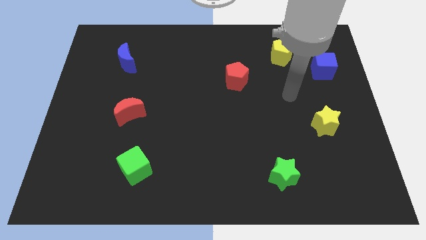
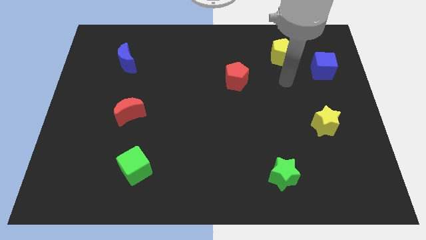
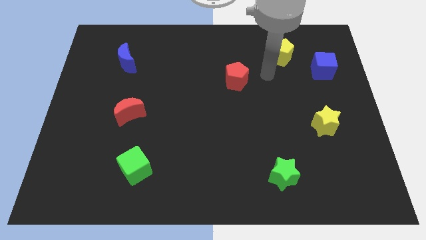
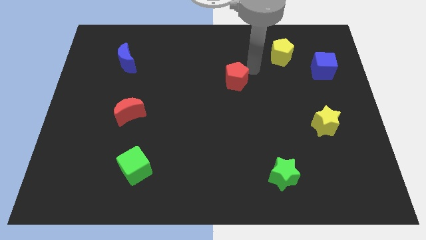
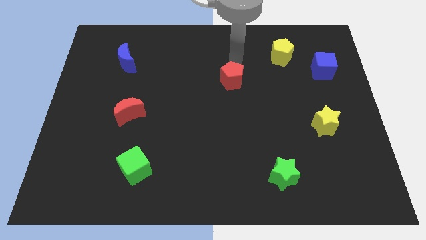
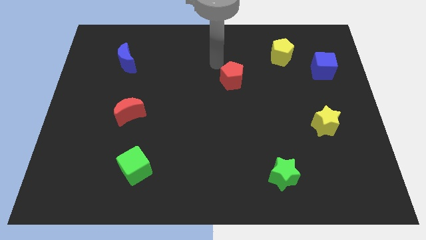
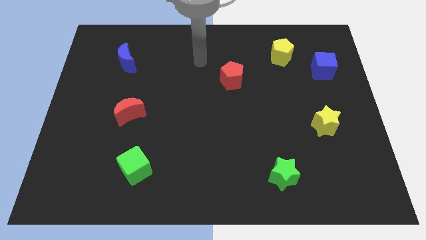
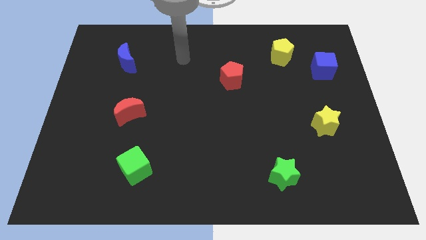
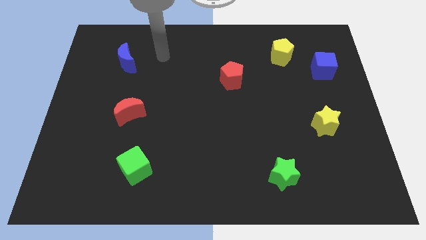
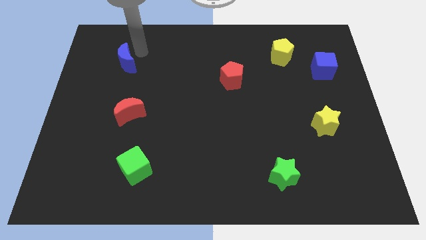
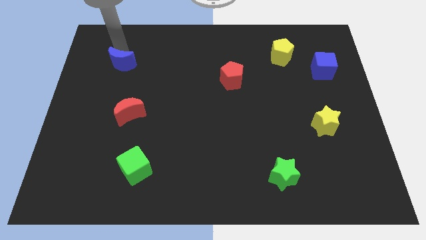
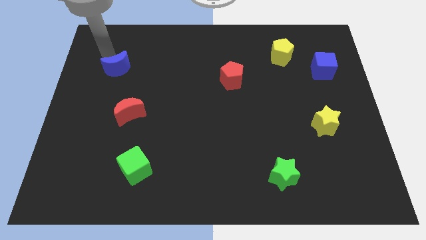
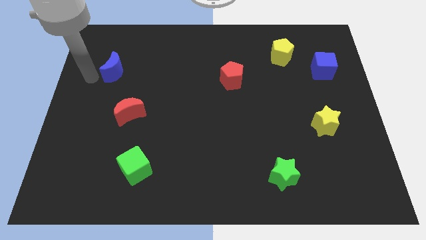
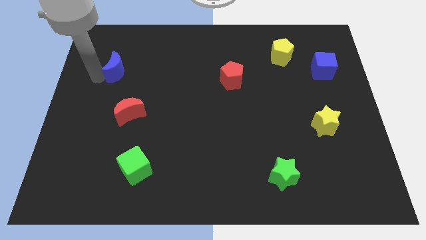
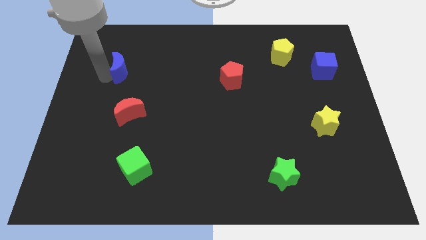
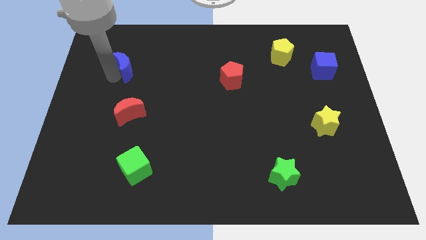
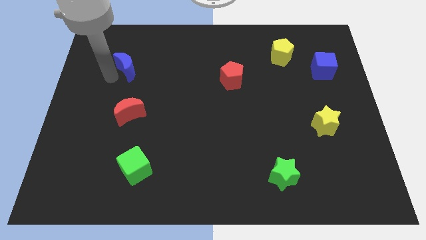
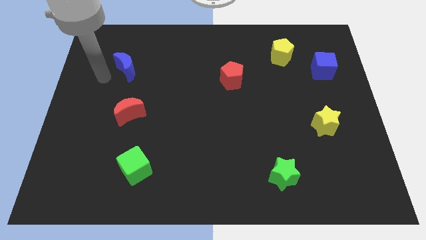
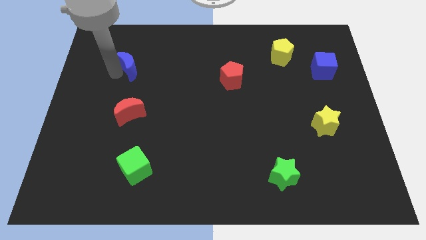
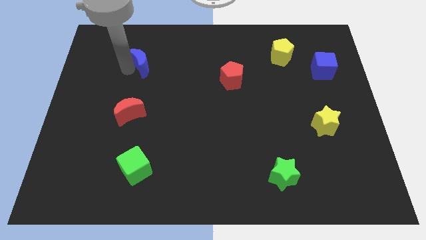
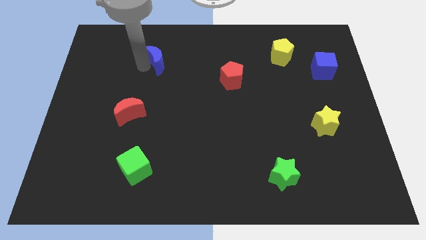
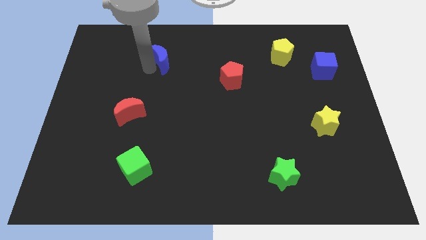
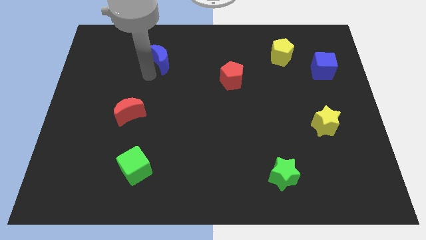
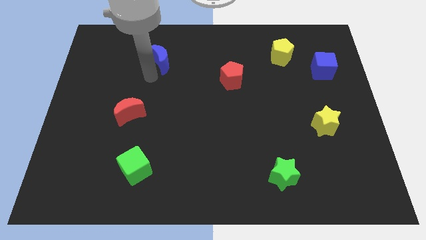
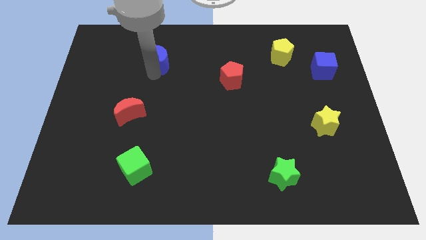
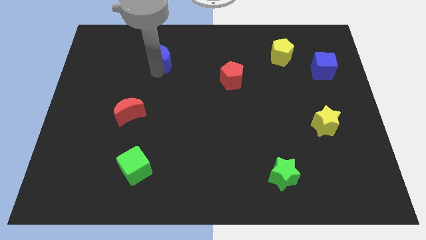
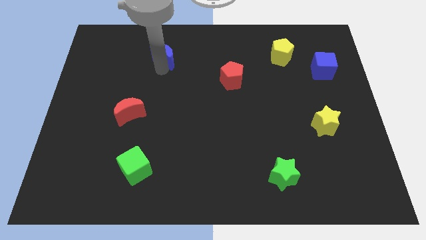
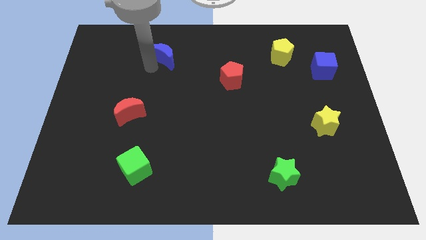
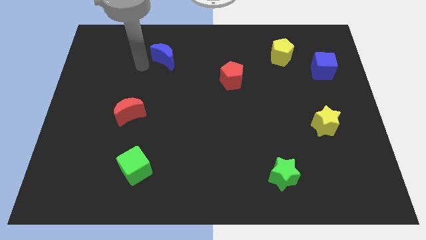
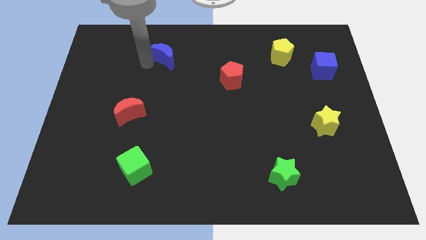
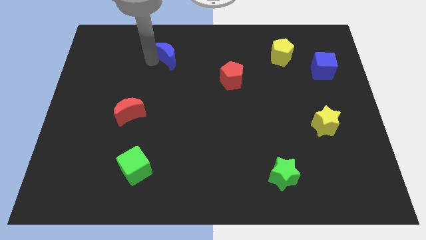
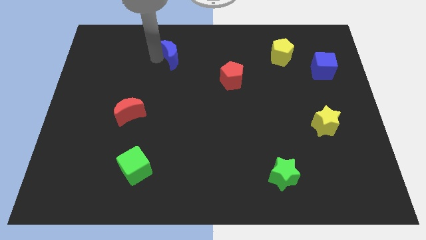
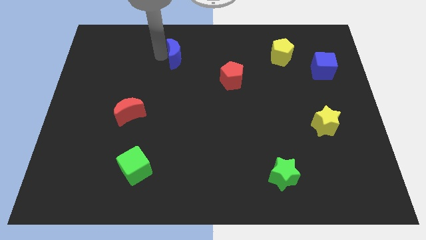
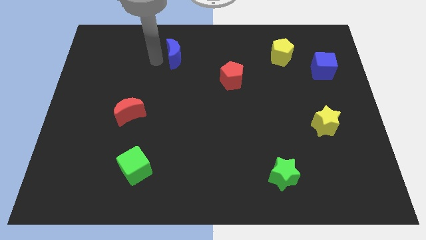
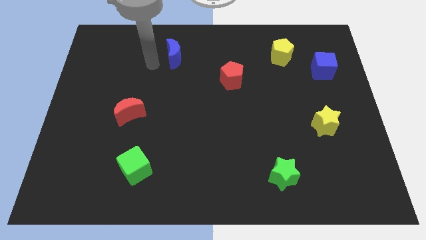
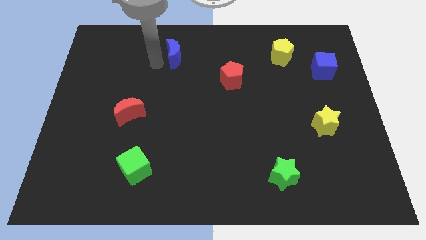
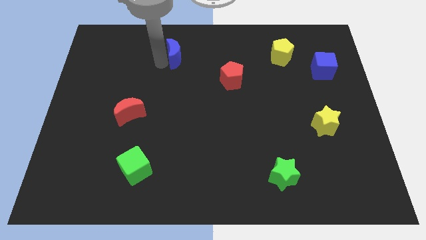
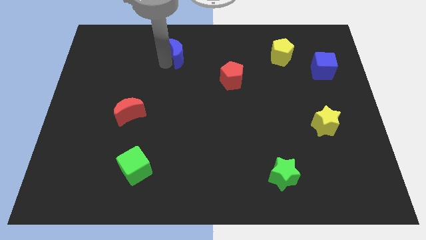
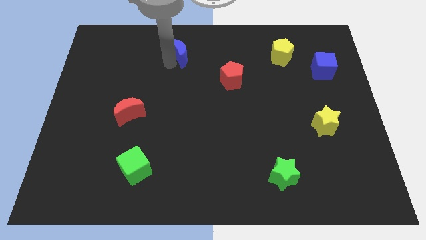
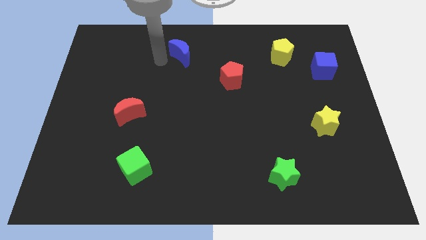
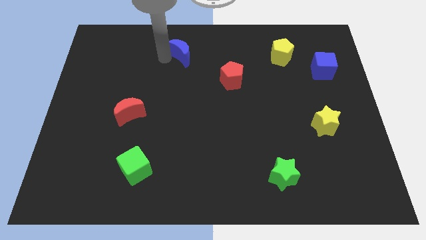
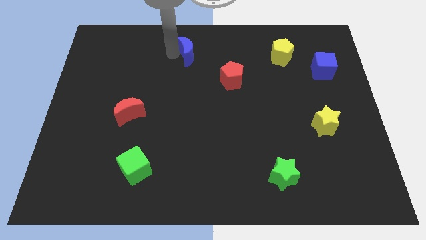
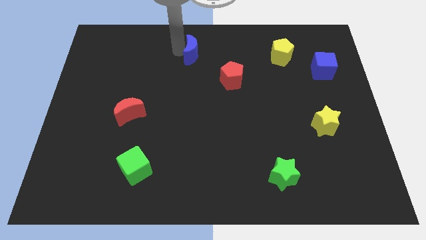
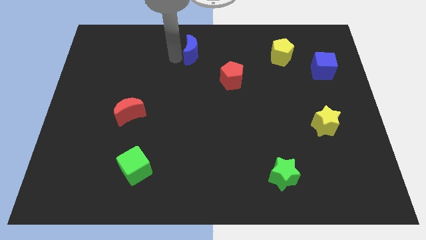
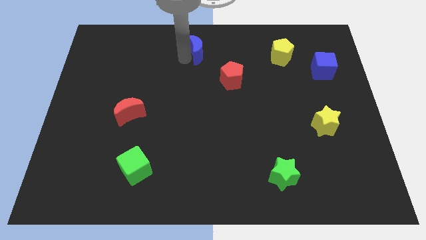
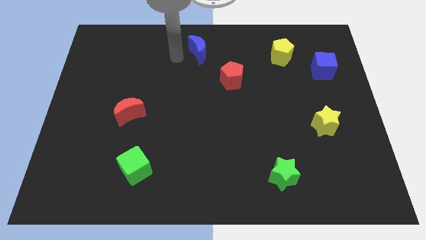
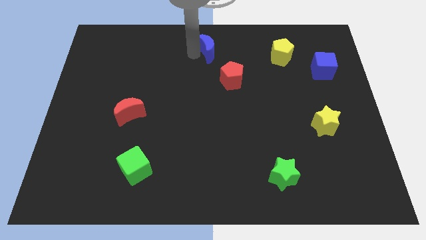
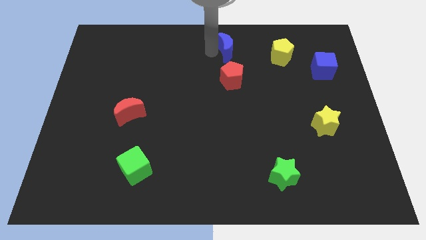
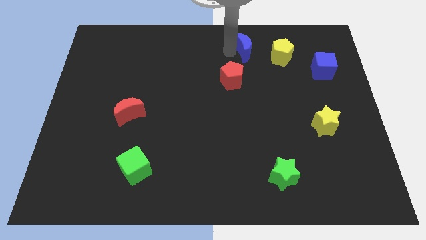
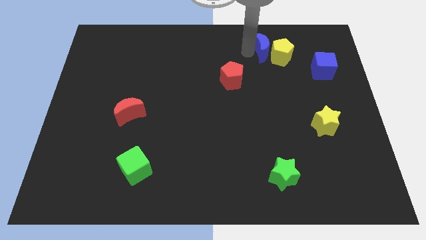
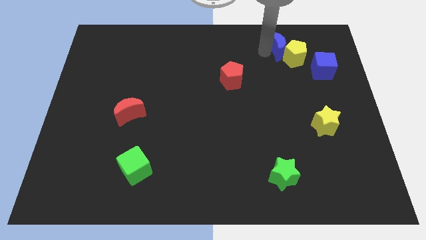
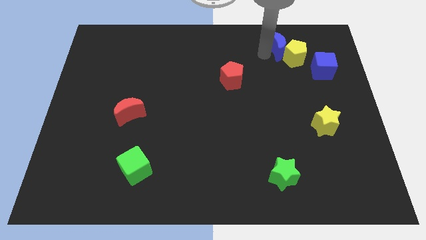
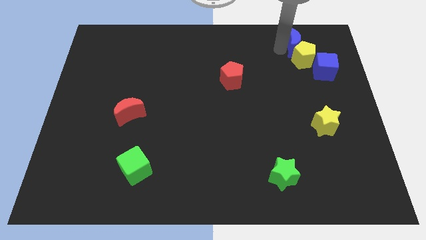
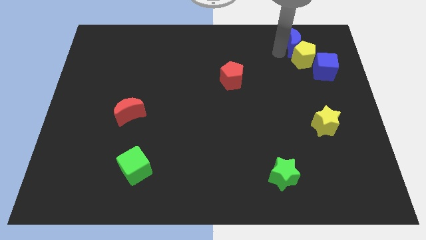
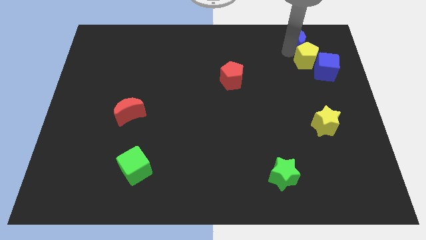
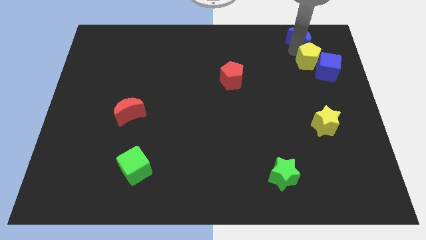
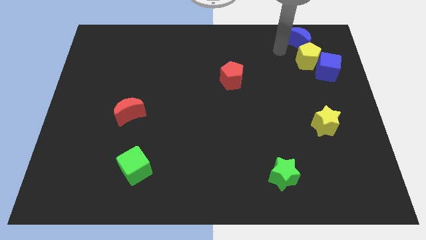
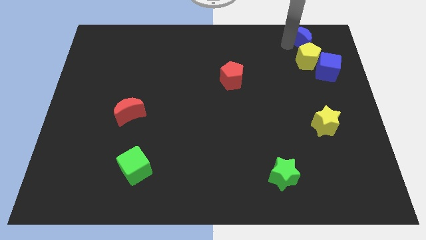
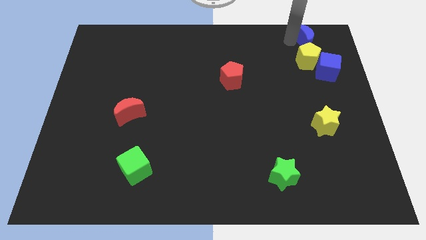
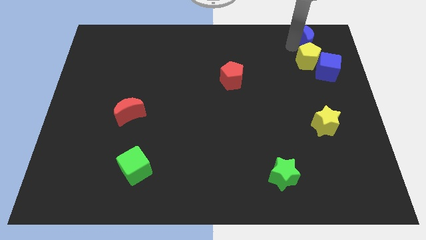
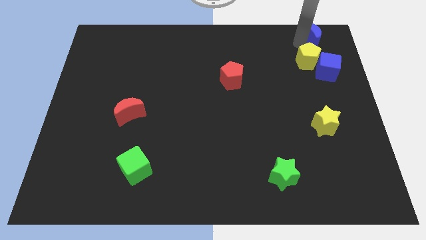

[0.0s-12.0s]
push the blue moon to the top right

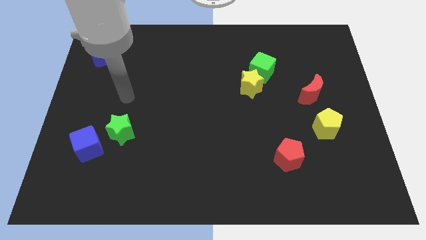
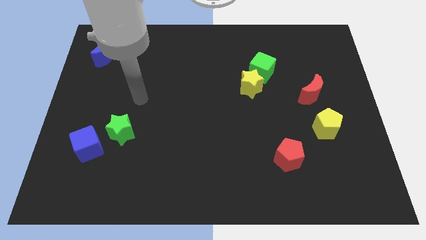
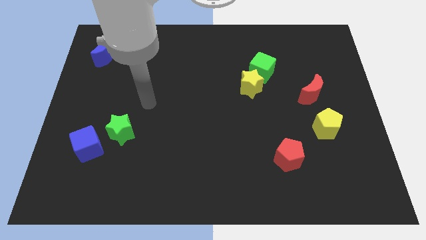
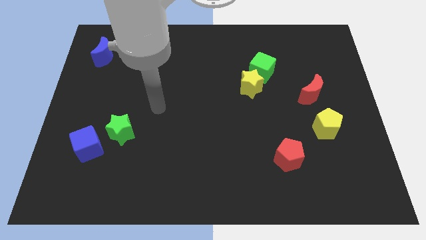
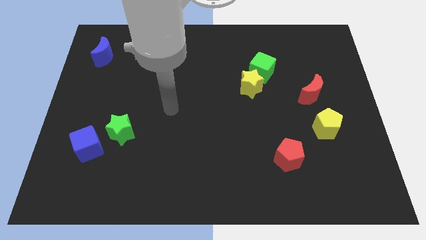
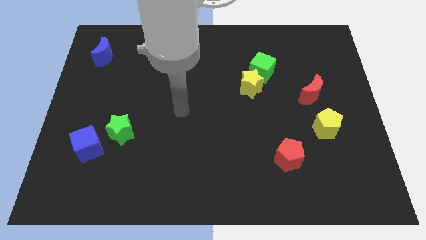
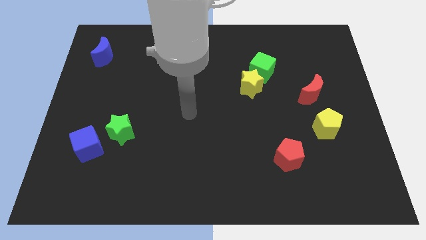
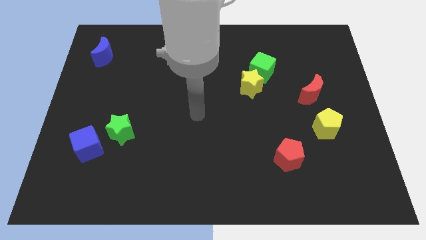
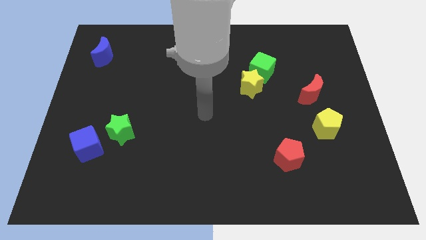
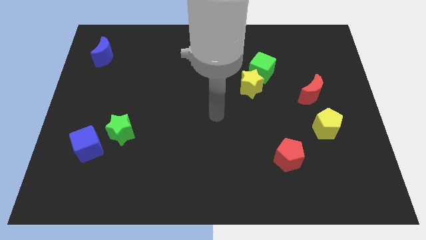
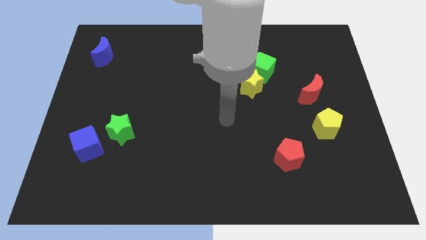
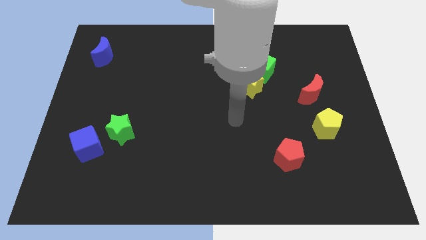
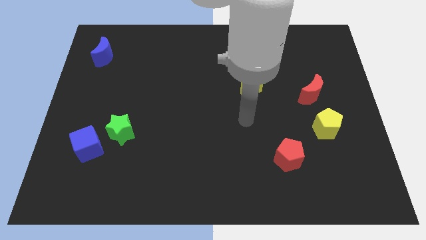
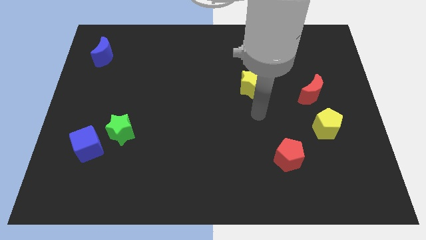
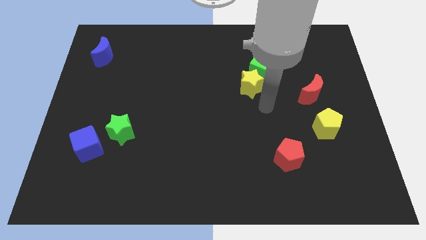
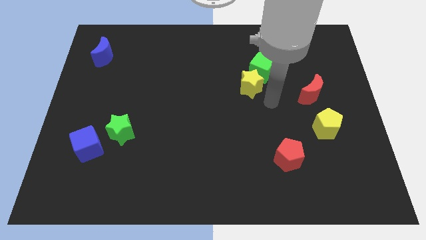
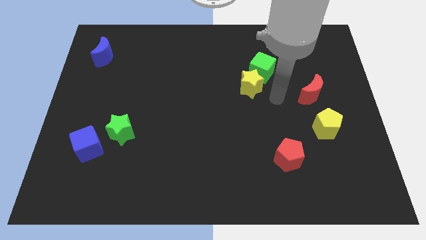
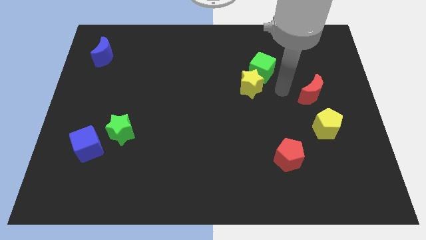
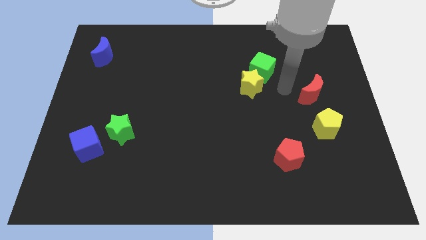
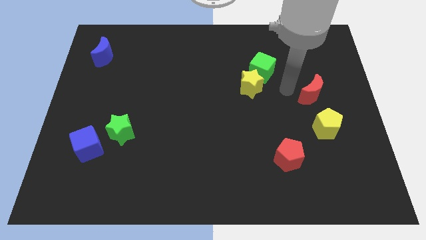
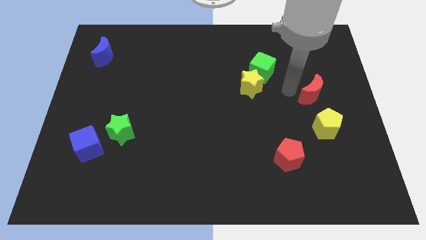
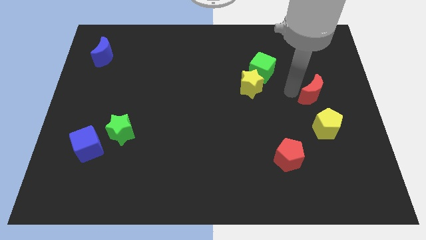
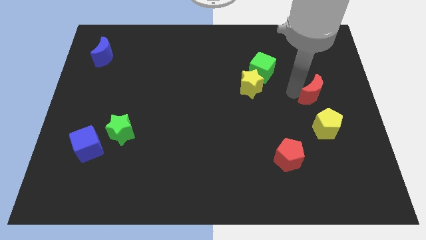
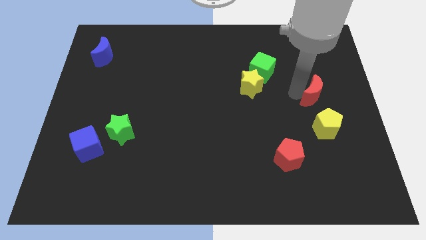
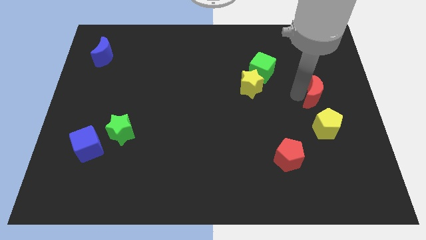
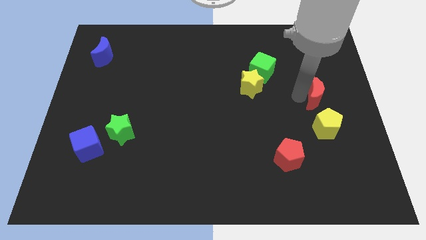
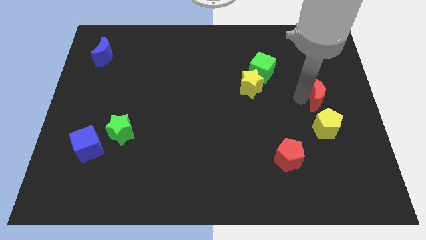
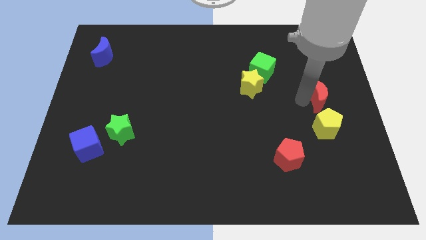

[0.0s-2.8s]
slide the red moon to the center right
